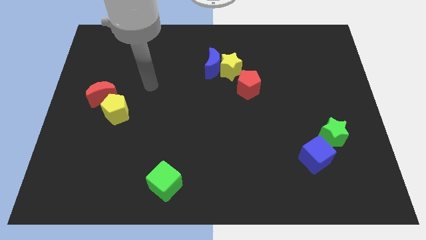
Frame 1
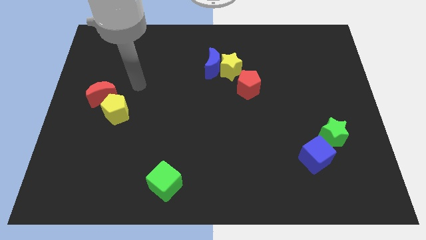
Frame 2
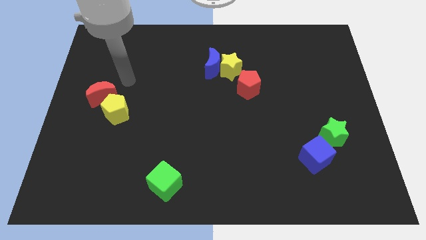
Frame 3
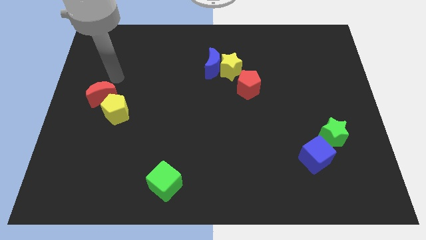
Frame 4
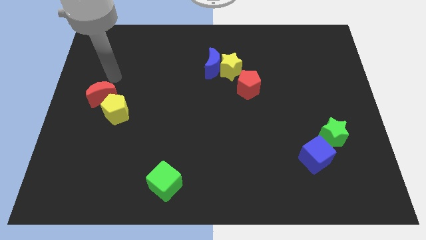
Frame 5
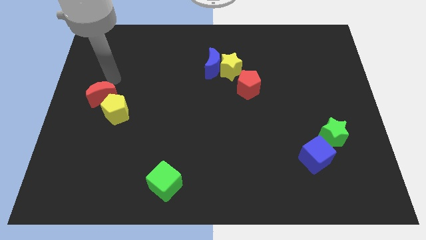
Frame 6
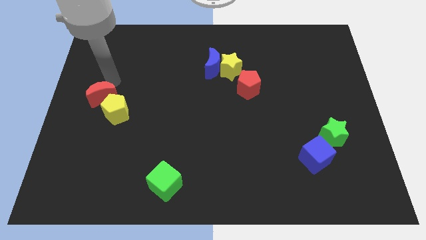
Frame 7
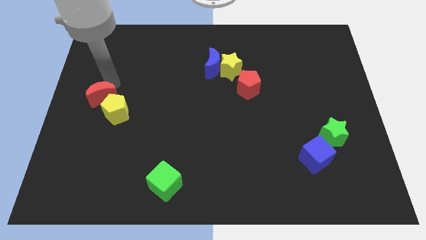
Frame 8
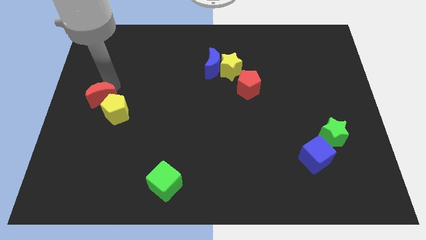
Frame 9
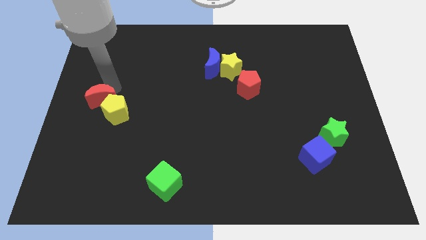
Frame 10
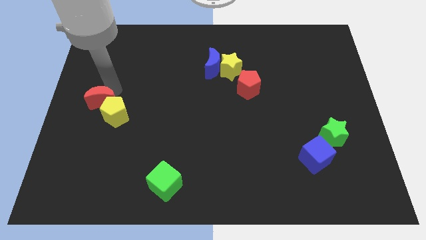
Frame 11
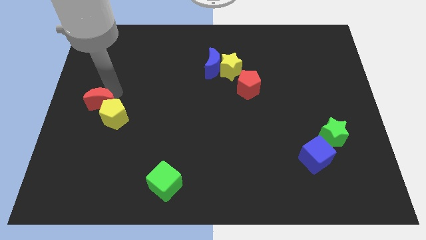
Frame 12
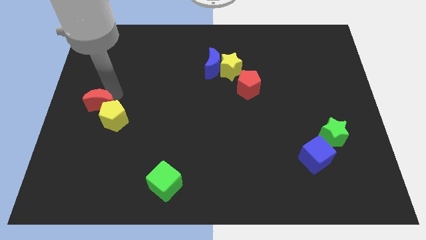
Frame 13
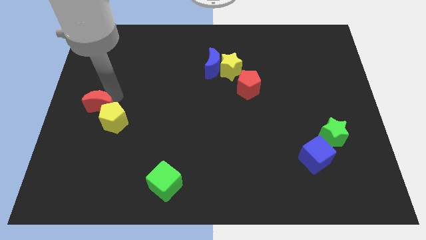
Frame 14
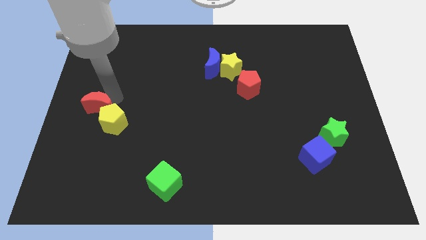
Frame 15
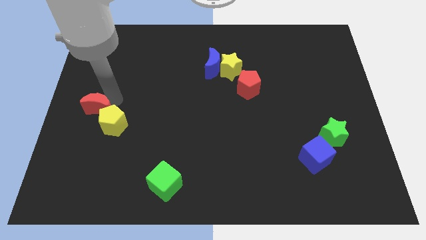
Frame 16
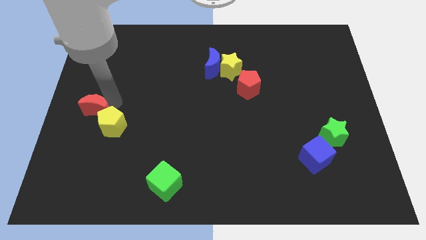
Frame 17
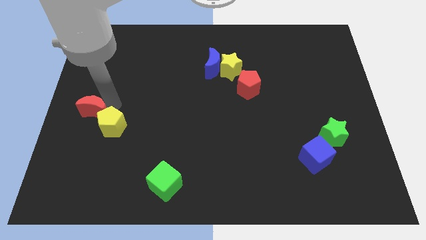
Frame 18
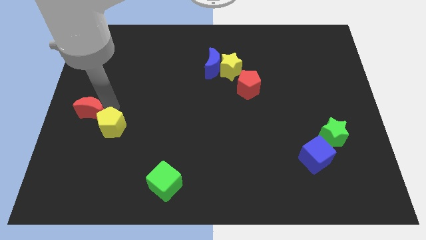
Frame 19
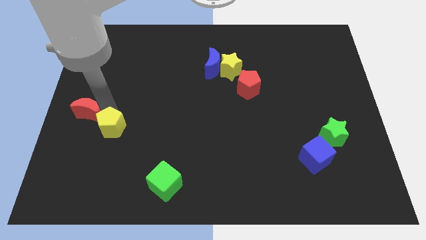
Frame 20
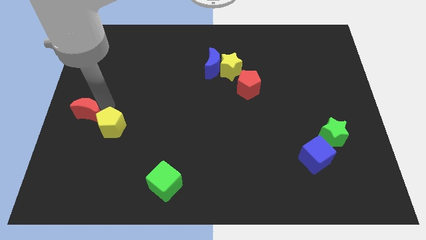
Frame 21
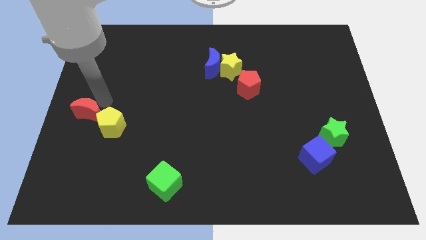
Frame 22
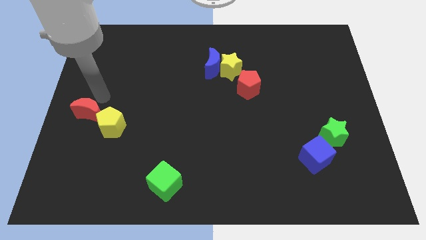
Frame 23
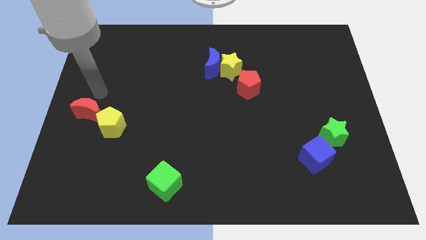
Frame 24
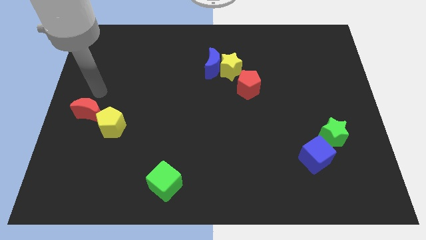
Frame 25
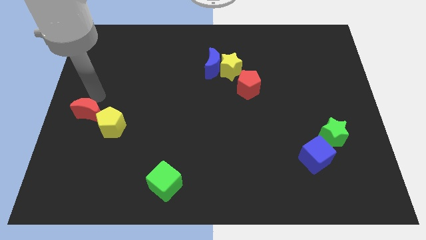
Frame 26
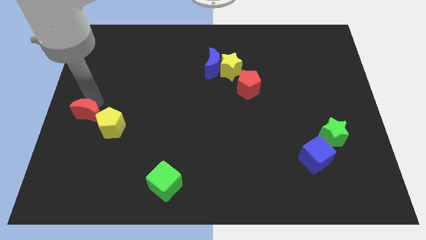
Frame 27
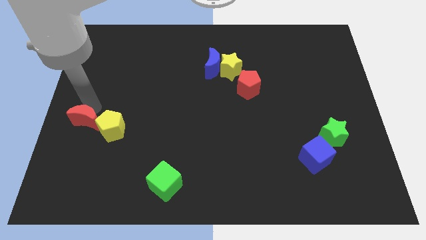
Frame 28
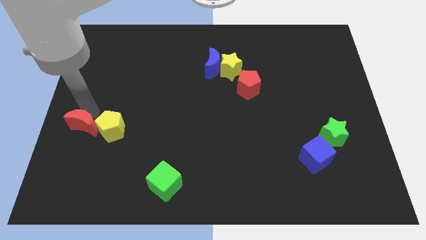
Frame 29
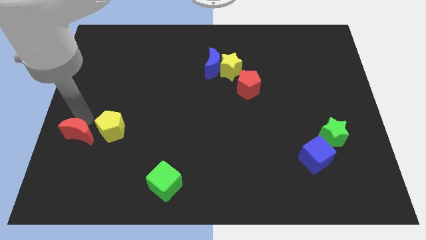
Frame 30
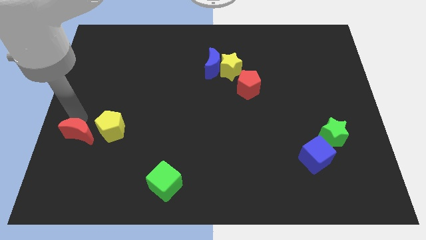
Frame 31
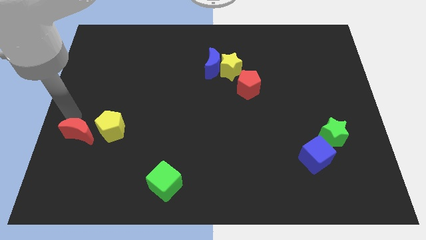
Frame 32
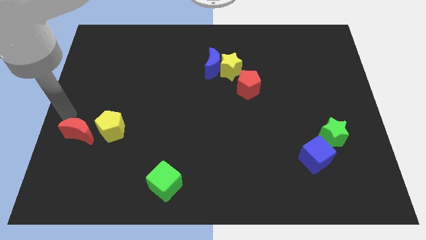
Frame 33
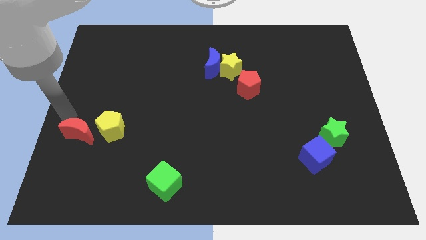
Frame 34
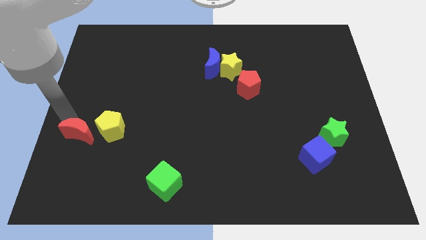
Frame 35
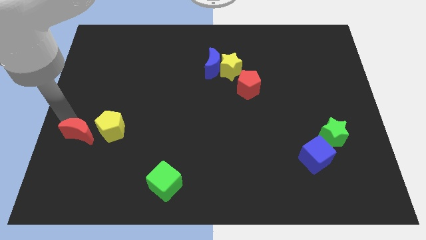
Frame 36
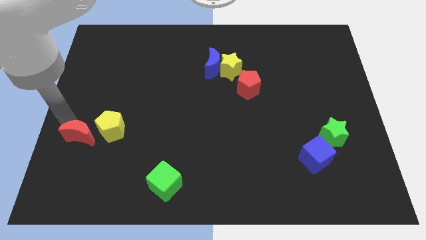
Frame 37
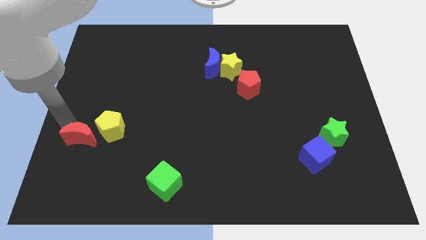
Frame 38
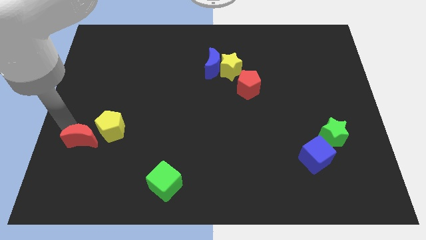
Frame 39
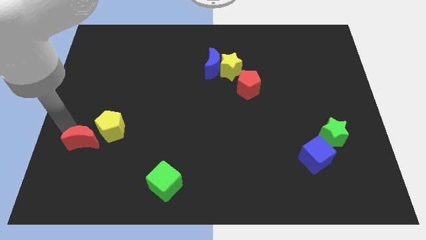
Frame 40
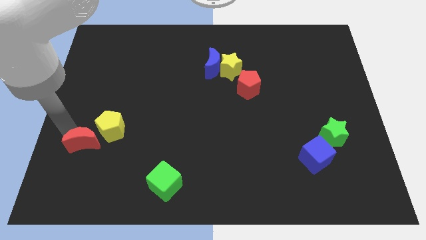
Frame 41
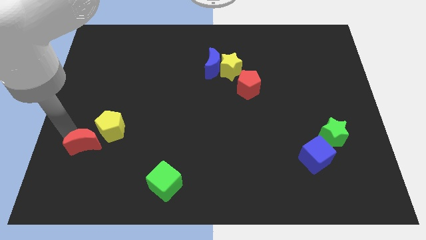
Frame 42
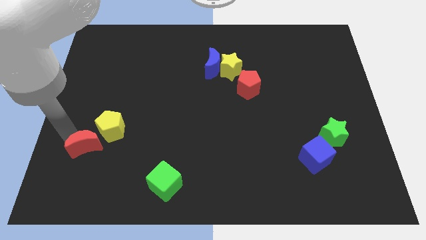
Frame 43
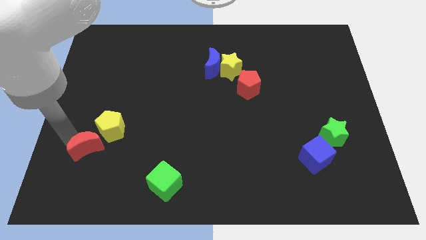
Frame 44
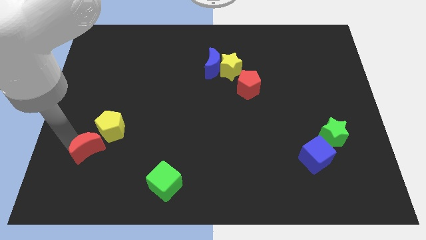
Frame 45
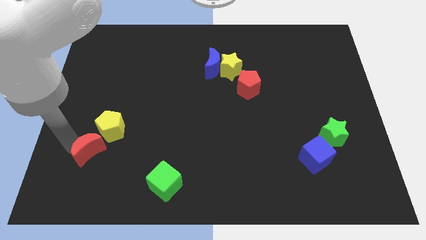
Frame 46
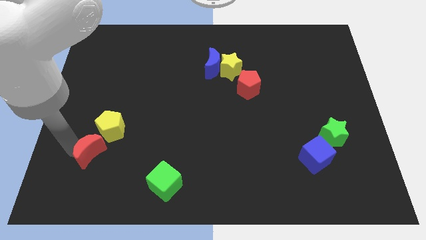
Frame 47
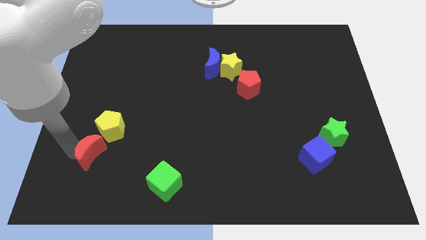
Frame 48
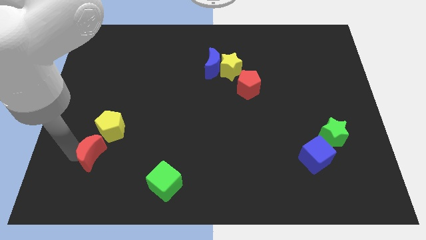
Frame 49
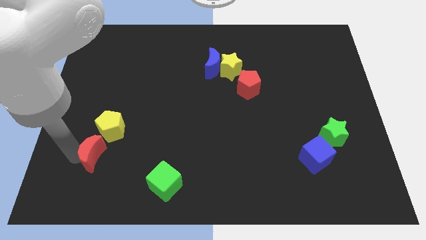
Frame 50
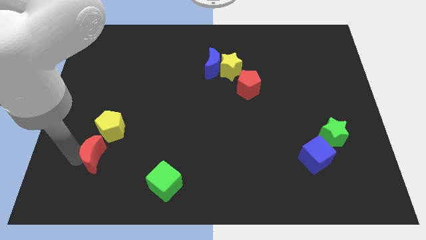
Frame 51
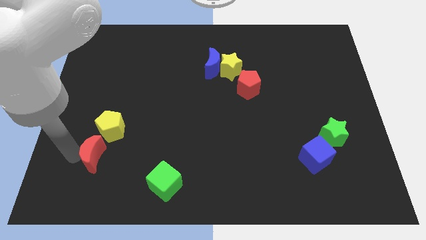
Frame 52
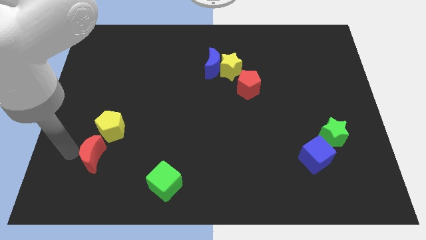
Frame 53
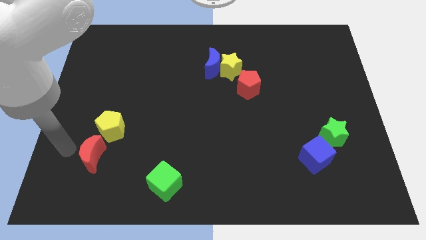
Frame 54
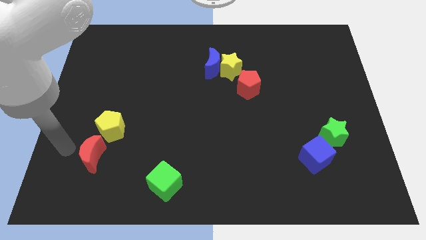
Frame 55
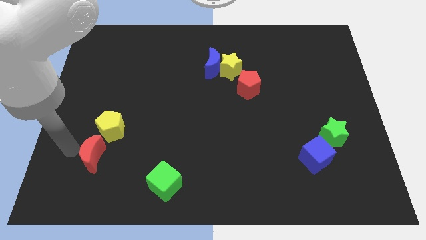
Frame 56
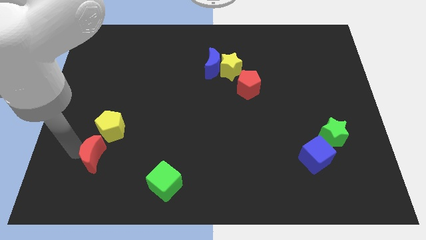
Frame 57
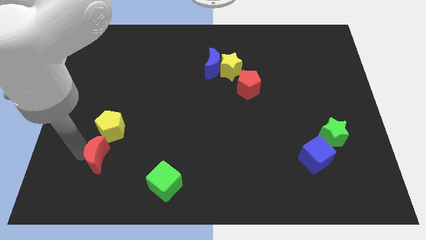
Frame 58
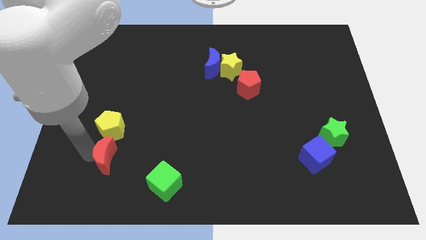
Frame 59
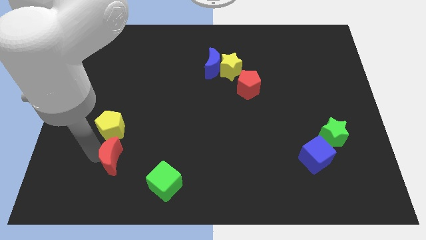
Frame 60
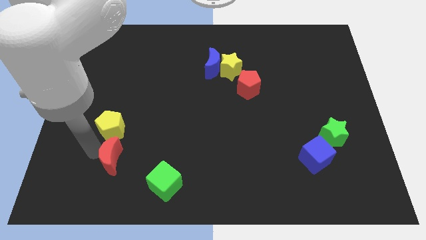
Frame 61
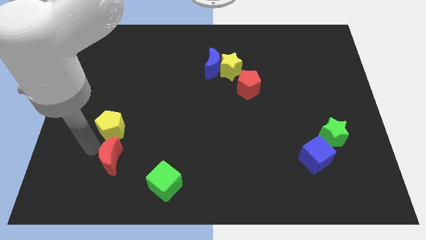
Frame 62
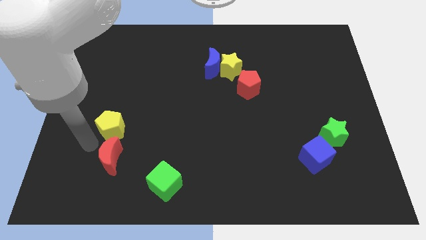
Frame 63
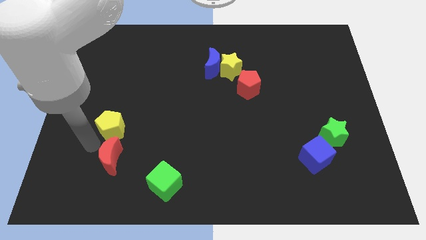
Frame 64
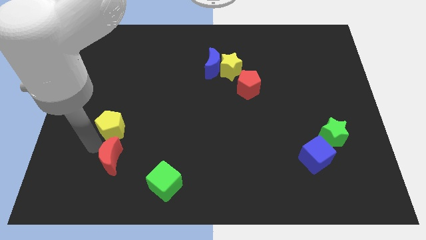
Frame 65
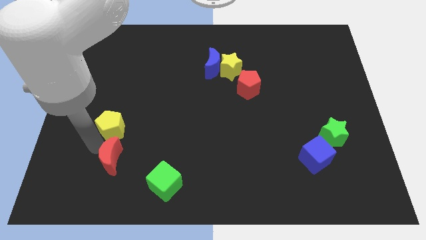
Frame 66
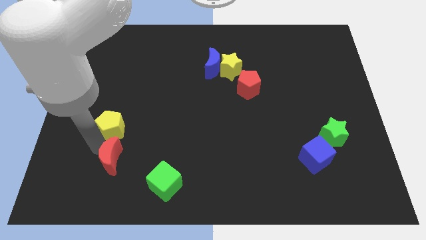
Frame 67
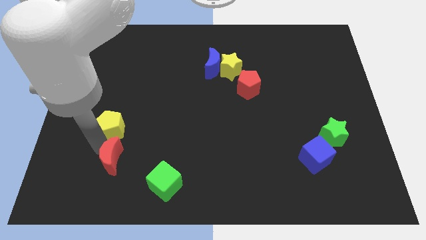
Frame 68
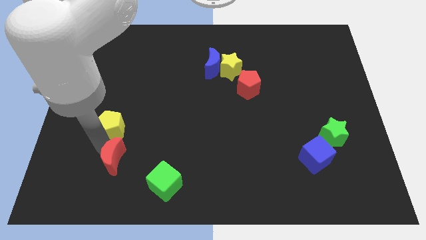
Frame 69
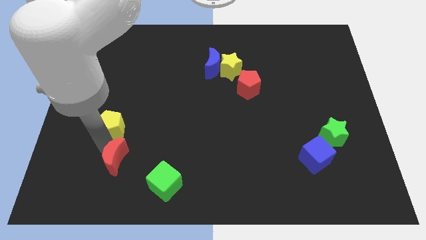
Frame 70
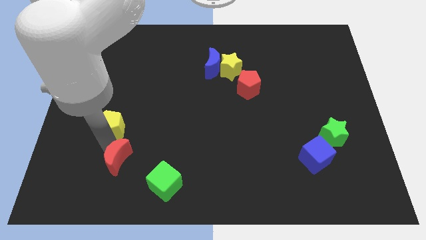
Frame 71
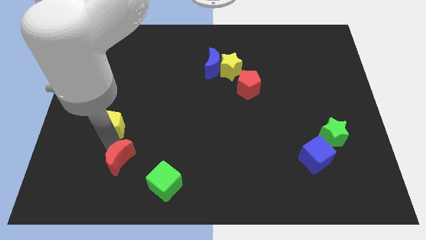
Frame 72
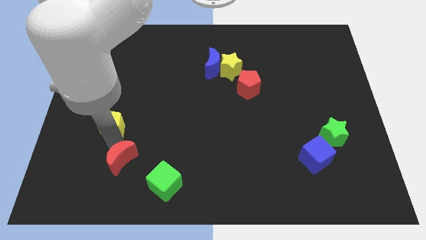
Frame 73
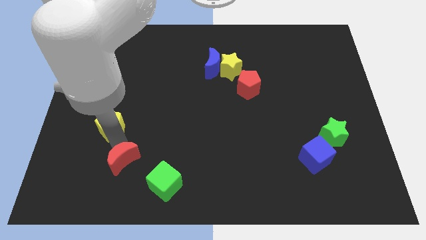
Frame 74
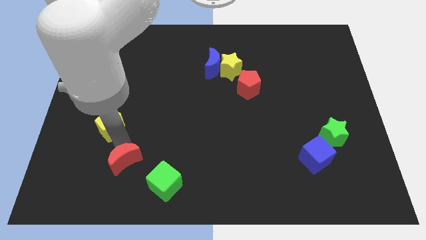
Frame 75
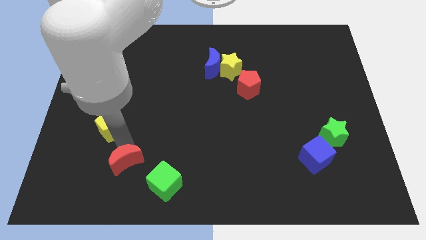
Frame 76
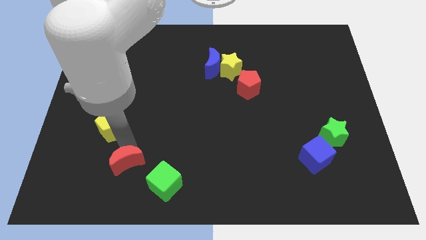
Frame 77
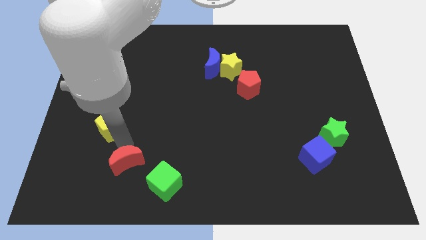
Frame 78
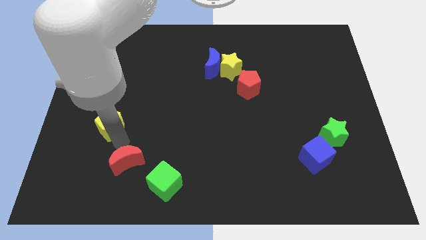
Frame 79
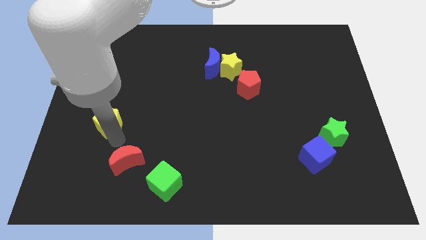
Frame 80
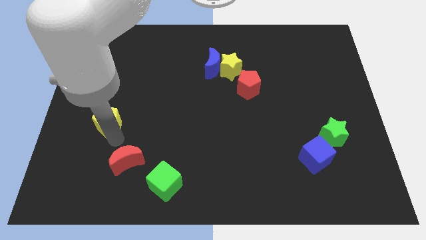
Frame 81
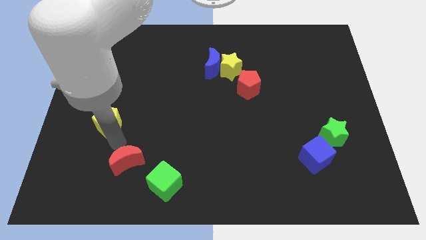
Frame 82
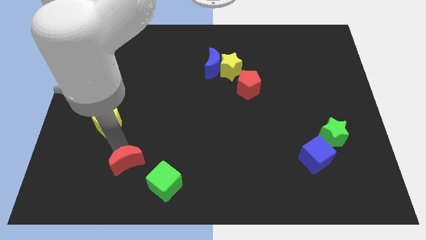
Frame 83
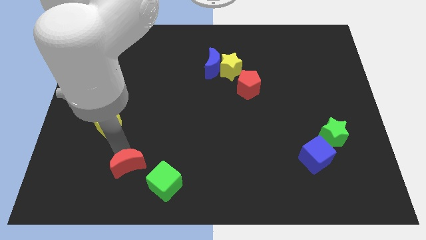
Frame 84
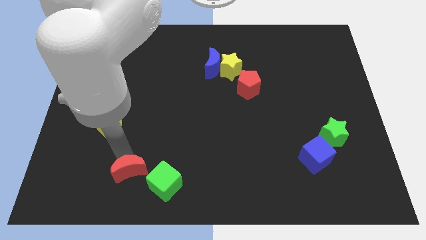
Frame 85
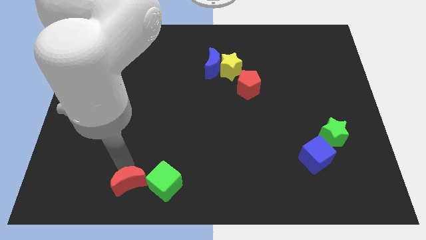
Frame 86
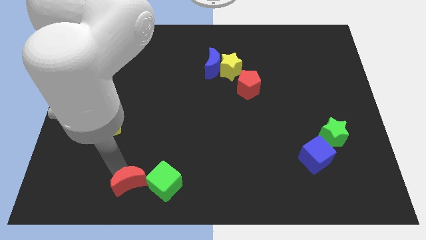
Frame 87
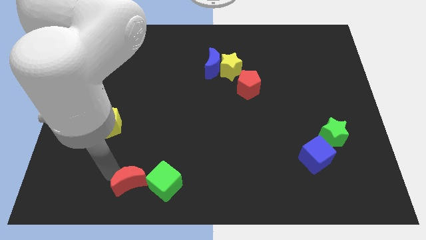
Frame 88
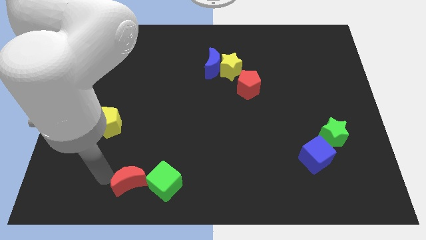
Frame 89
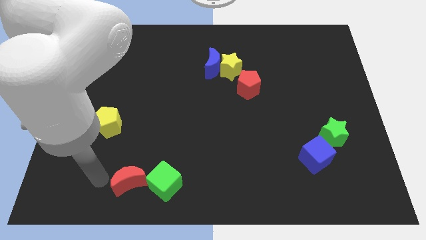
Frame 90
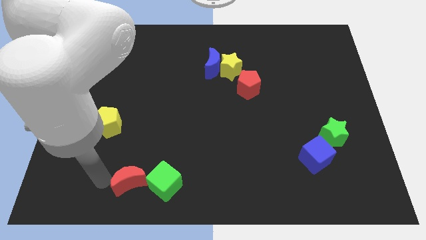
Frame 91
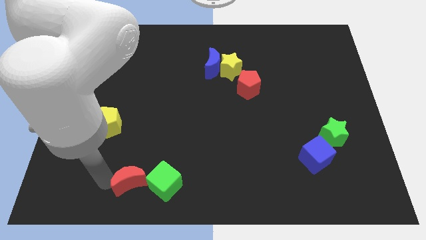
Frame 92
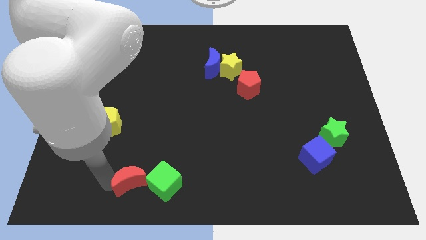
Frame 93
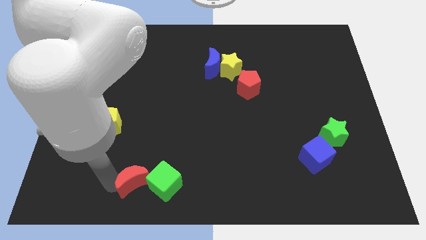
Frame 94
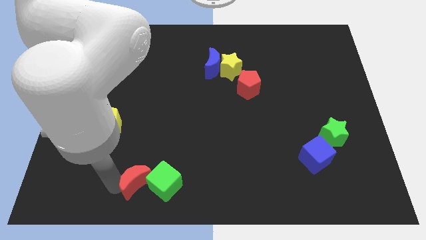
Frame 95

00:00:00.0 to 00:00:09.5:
move the red moon to the green cube
